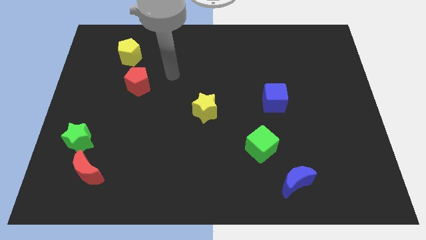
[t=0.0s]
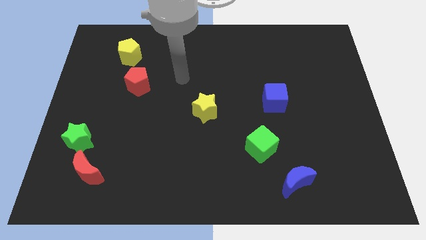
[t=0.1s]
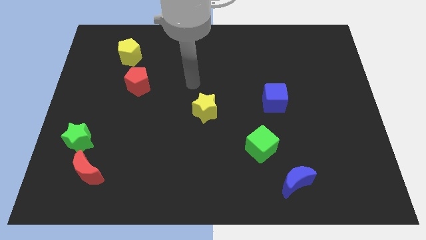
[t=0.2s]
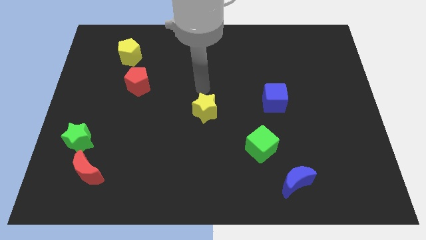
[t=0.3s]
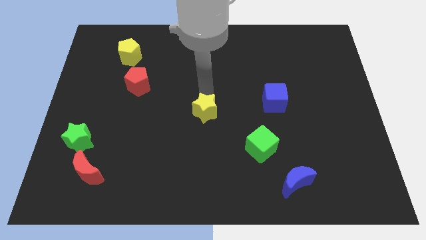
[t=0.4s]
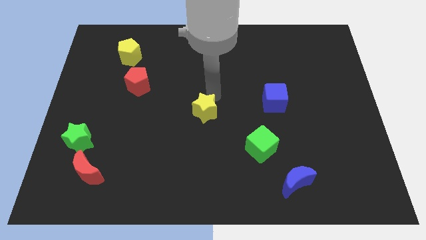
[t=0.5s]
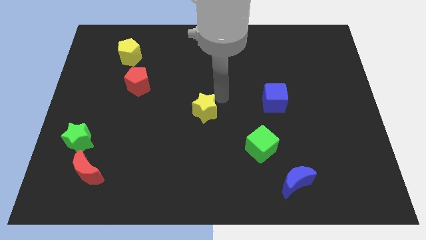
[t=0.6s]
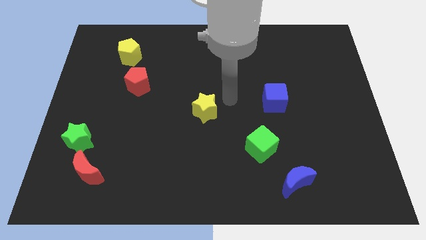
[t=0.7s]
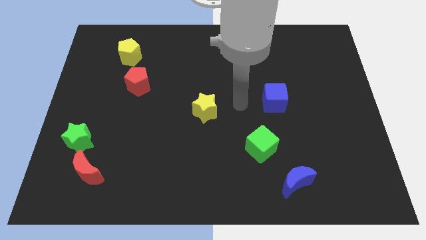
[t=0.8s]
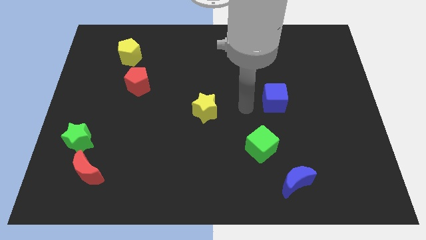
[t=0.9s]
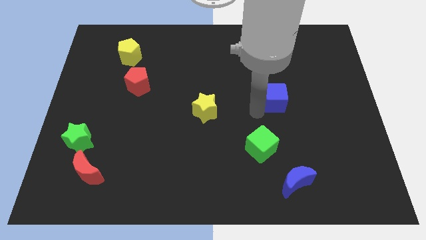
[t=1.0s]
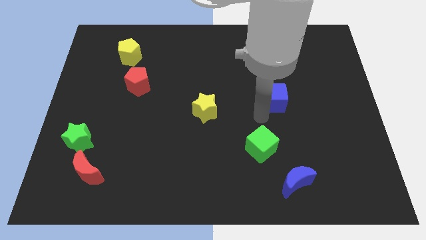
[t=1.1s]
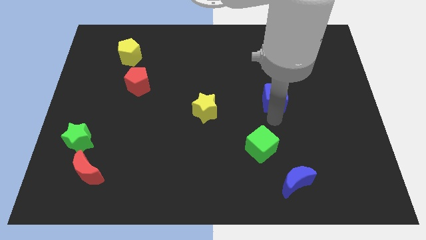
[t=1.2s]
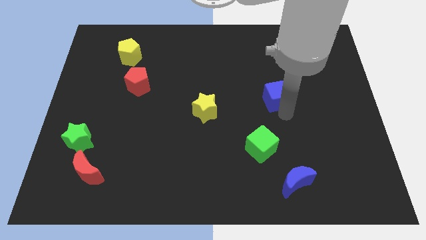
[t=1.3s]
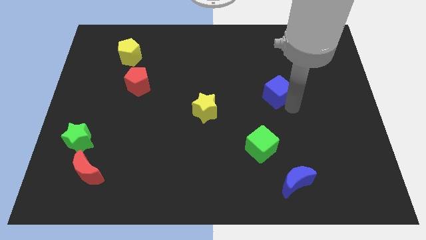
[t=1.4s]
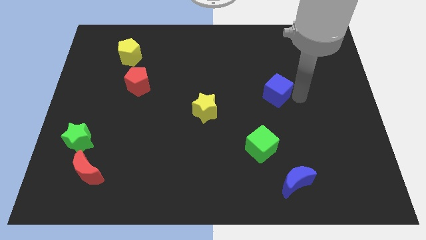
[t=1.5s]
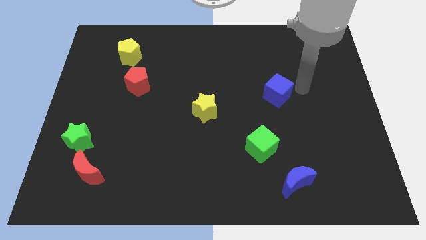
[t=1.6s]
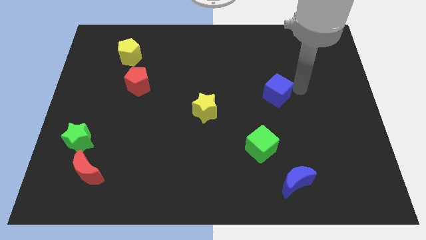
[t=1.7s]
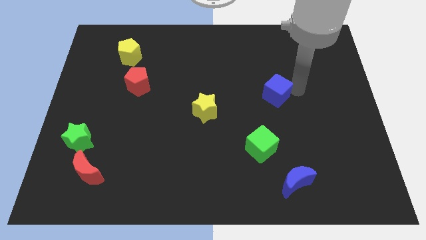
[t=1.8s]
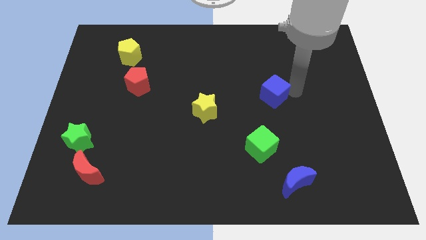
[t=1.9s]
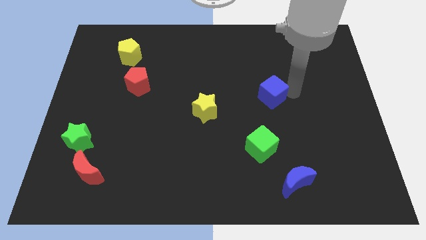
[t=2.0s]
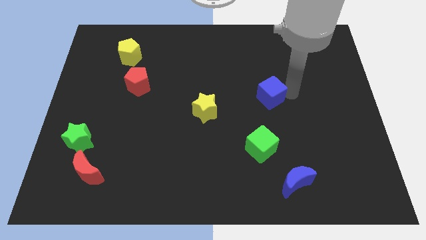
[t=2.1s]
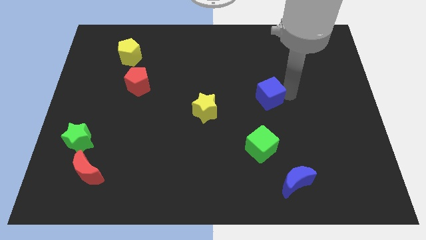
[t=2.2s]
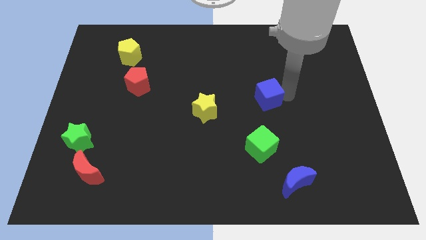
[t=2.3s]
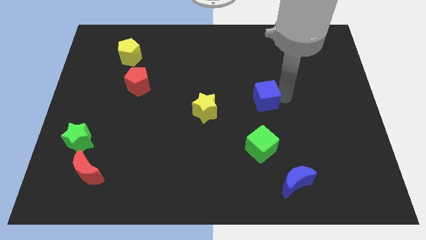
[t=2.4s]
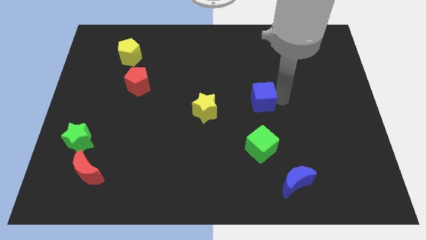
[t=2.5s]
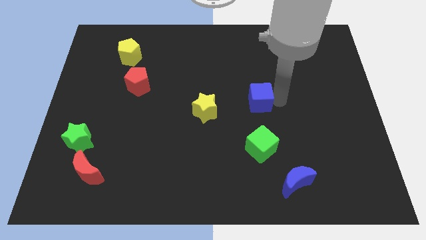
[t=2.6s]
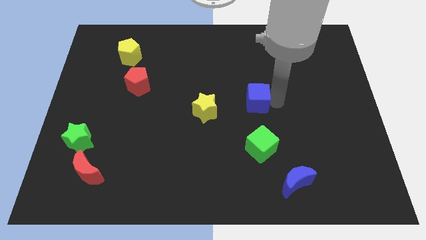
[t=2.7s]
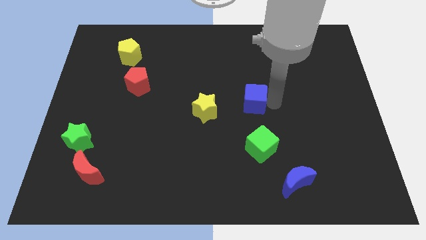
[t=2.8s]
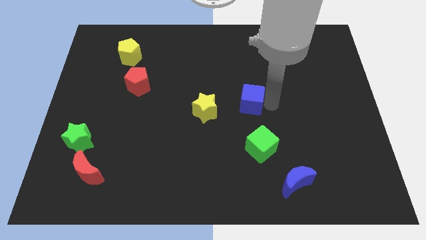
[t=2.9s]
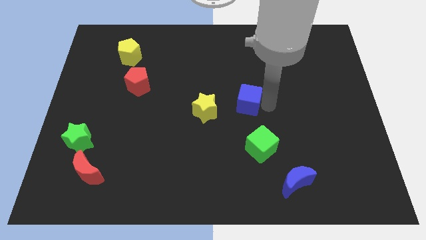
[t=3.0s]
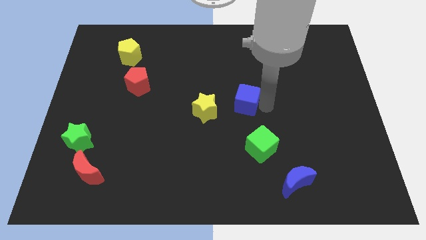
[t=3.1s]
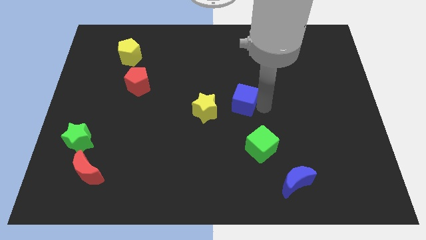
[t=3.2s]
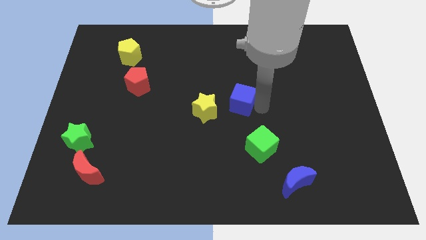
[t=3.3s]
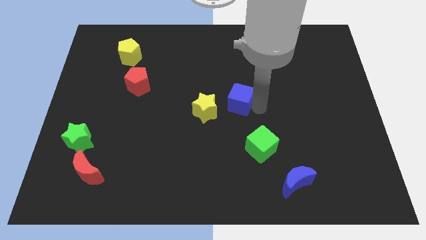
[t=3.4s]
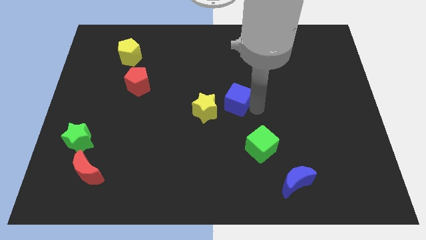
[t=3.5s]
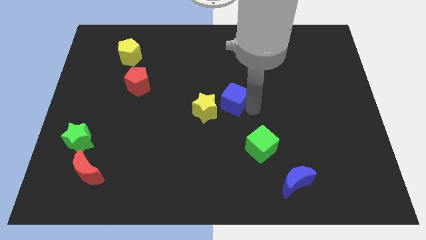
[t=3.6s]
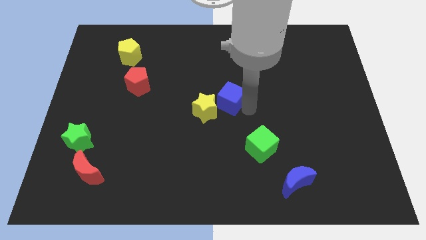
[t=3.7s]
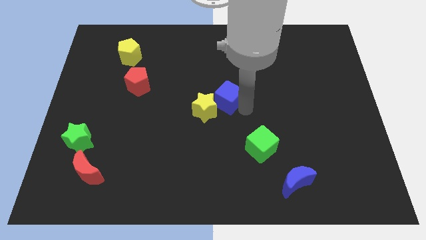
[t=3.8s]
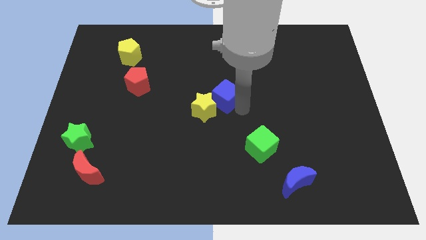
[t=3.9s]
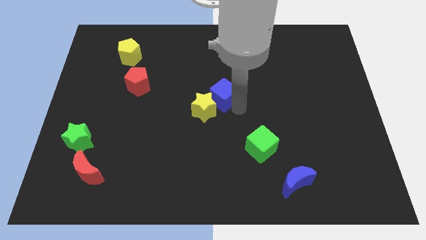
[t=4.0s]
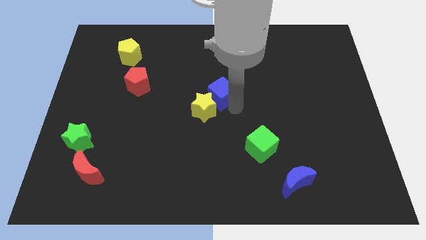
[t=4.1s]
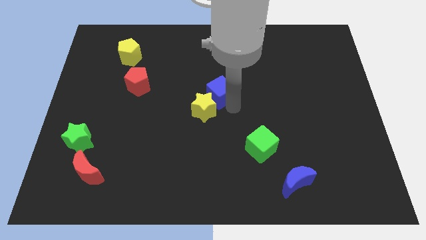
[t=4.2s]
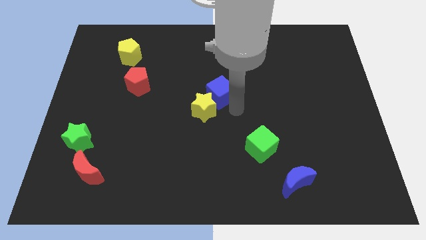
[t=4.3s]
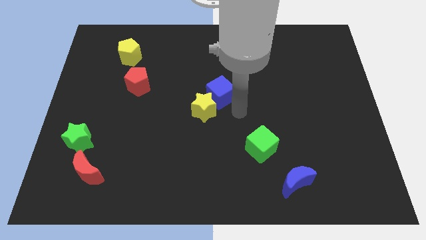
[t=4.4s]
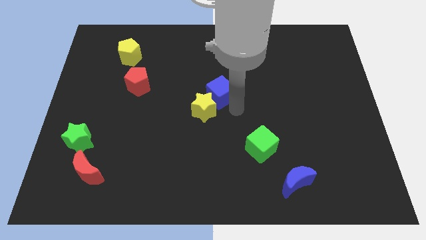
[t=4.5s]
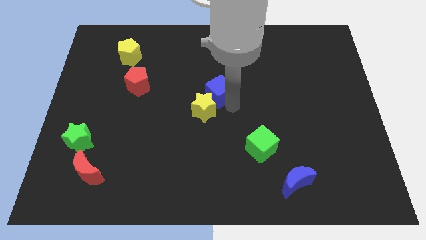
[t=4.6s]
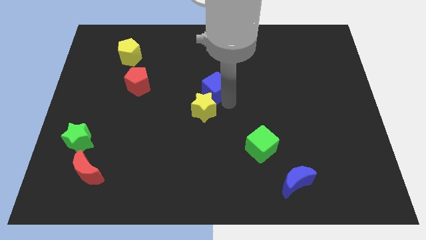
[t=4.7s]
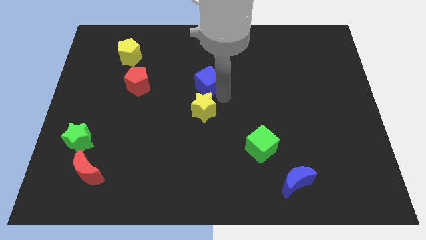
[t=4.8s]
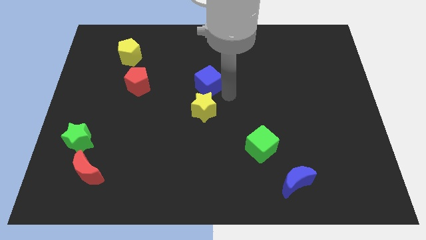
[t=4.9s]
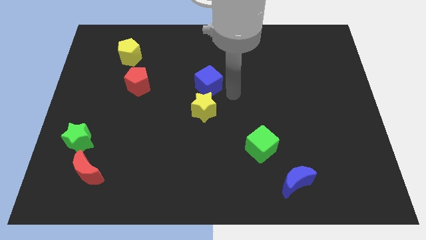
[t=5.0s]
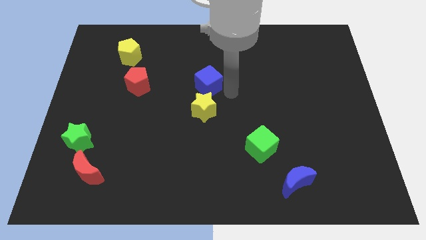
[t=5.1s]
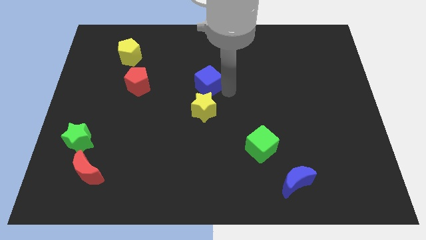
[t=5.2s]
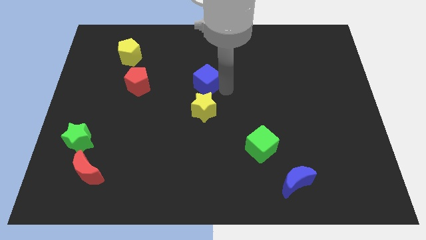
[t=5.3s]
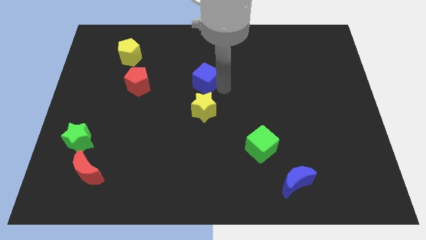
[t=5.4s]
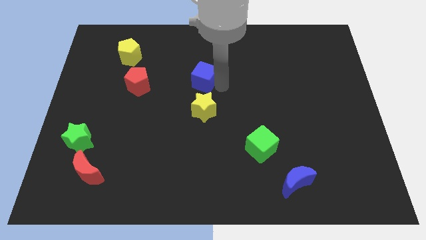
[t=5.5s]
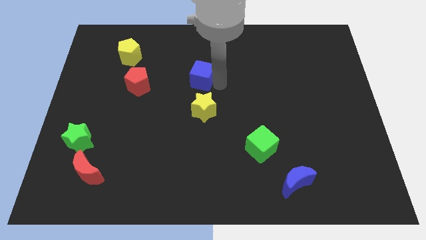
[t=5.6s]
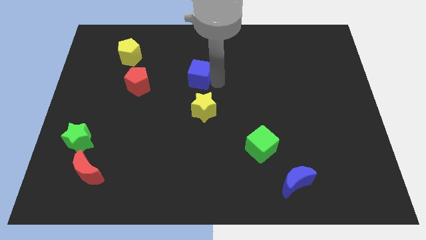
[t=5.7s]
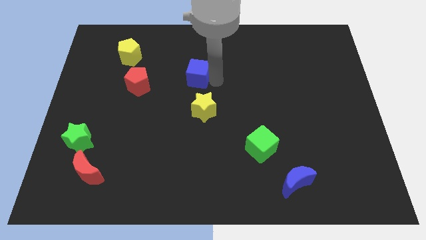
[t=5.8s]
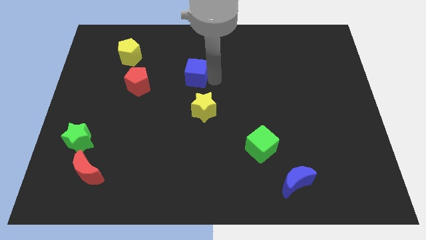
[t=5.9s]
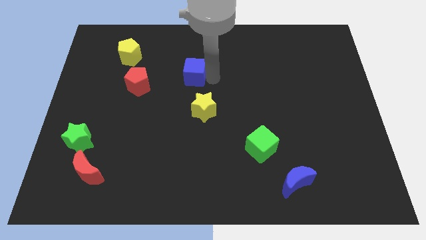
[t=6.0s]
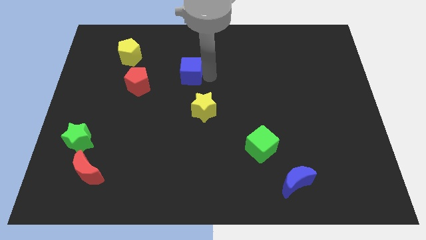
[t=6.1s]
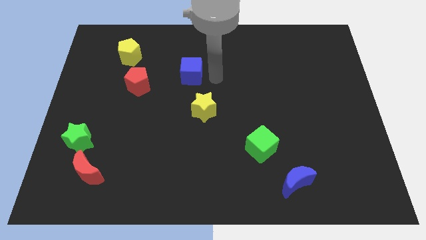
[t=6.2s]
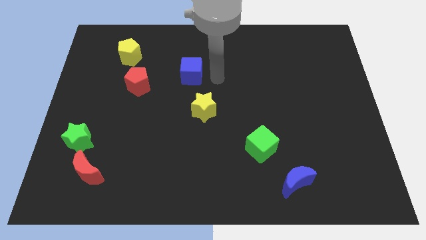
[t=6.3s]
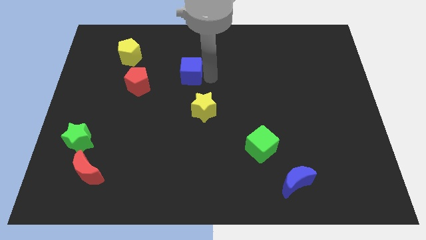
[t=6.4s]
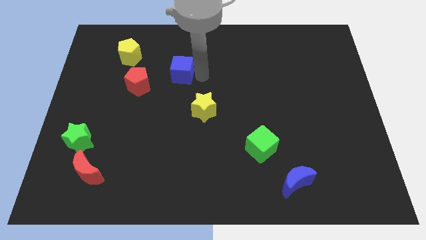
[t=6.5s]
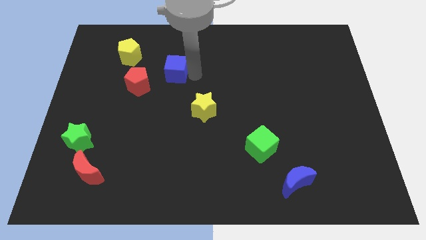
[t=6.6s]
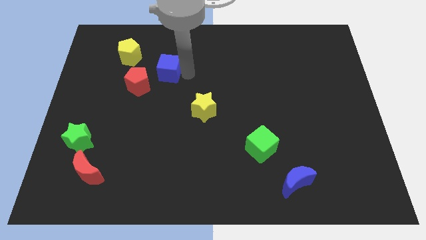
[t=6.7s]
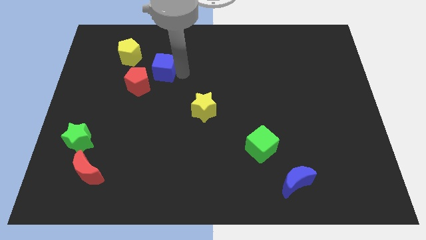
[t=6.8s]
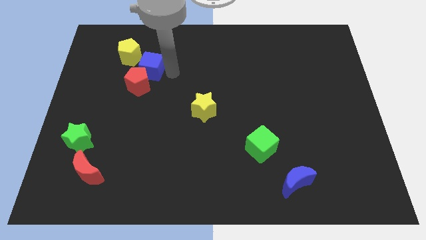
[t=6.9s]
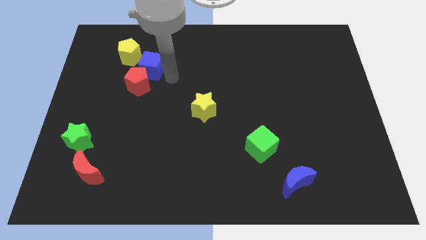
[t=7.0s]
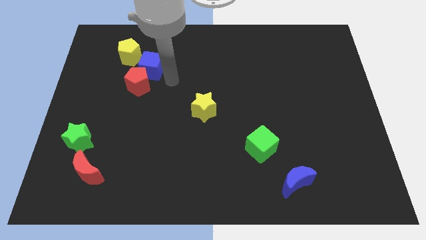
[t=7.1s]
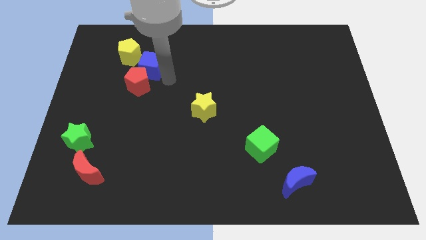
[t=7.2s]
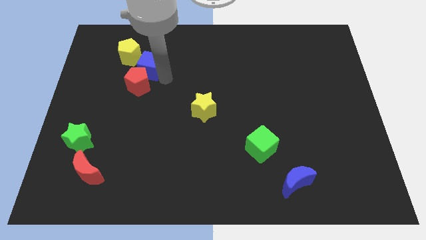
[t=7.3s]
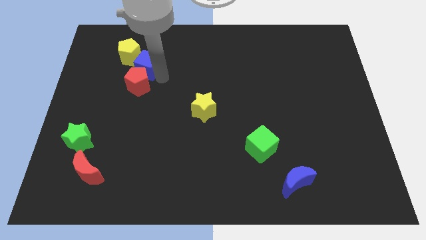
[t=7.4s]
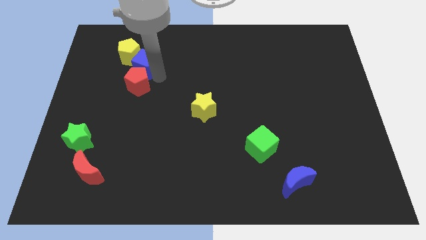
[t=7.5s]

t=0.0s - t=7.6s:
push the blue cube to the yellow pentagon
